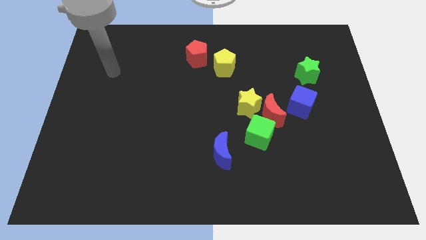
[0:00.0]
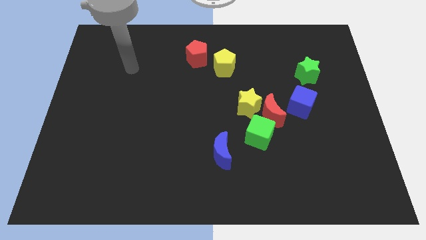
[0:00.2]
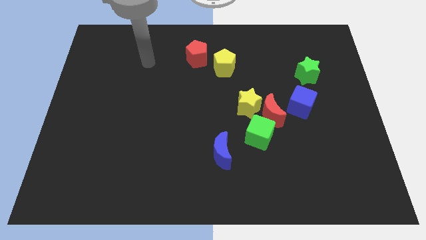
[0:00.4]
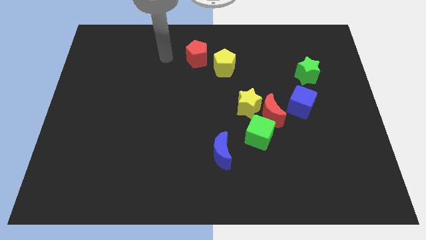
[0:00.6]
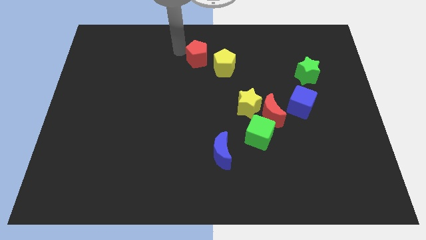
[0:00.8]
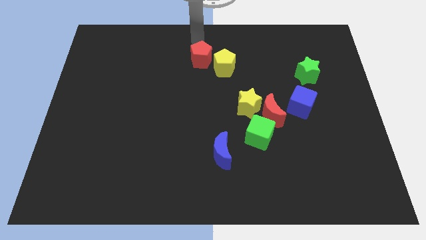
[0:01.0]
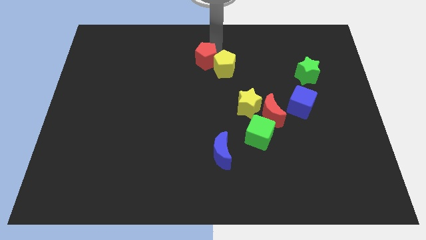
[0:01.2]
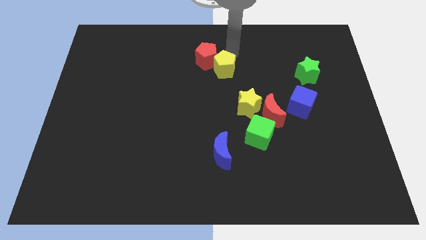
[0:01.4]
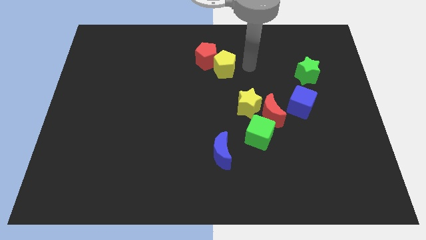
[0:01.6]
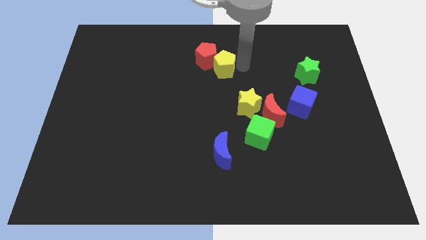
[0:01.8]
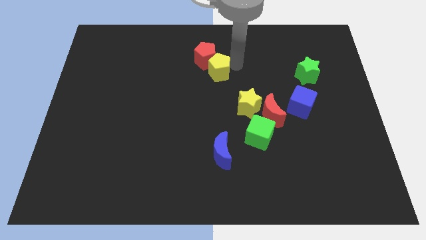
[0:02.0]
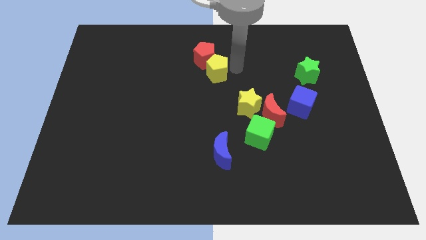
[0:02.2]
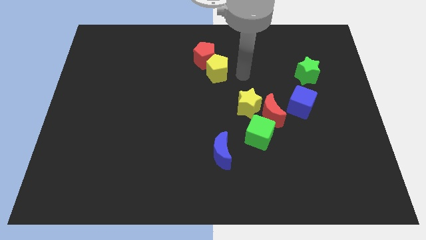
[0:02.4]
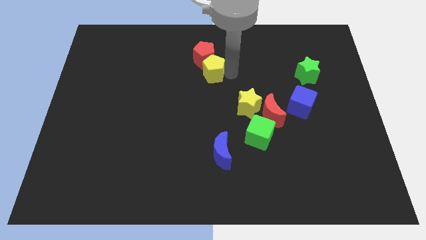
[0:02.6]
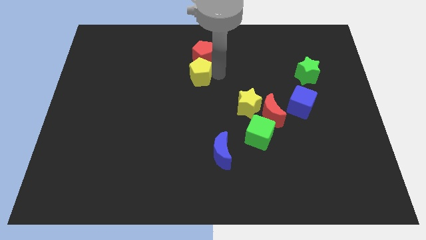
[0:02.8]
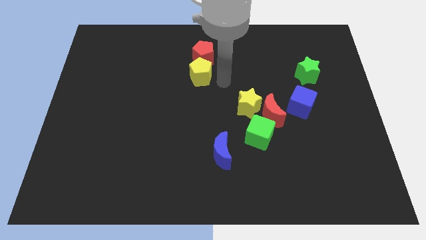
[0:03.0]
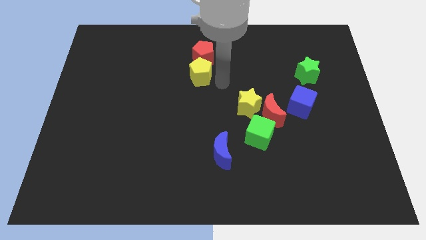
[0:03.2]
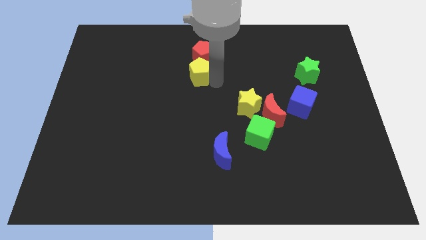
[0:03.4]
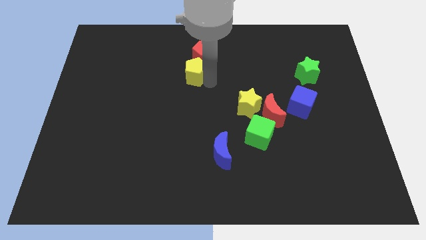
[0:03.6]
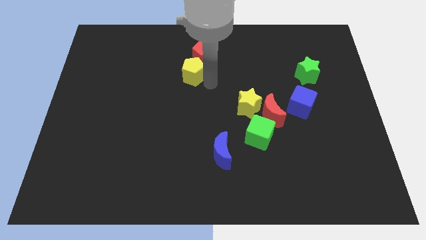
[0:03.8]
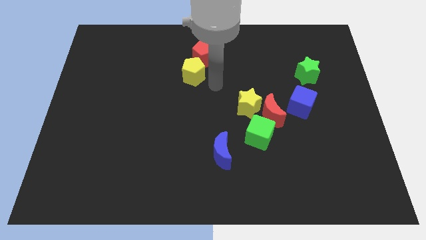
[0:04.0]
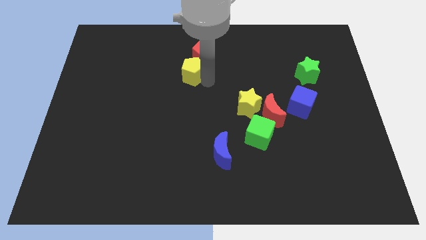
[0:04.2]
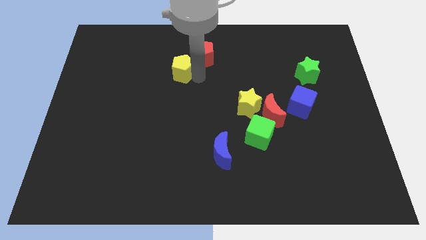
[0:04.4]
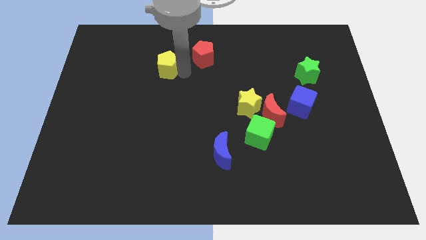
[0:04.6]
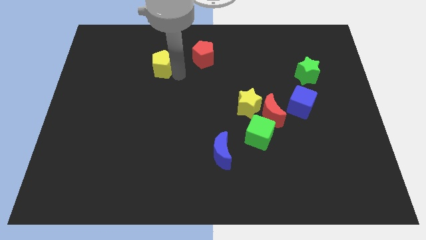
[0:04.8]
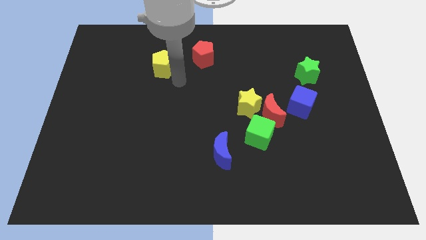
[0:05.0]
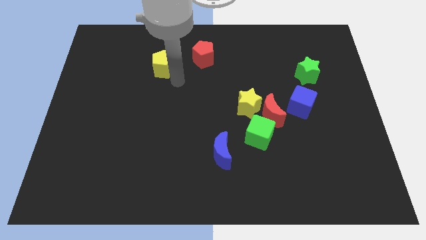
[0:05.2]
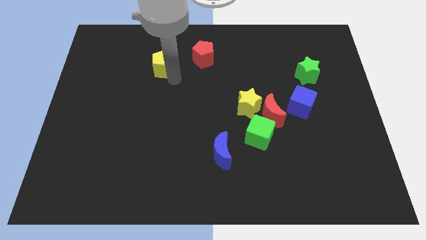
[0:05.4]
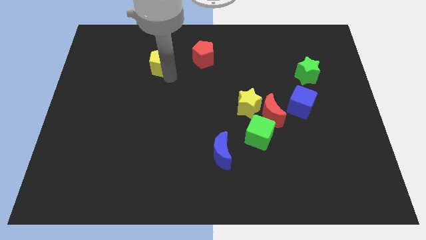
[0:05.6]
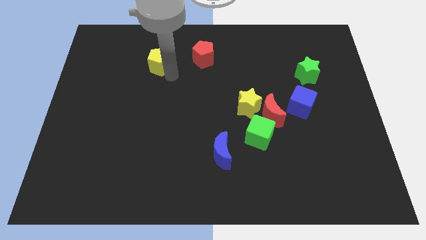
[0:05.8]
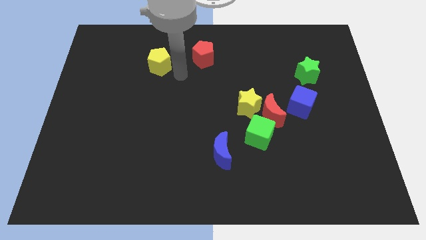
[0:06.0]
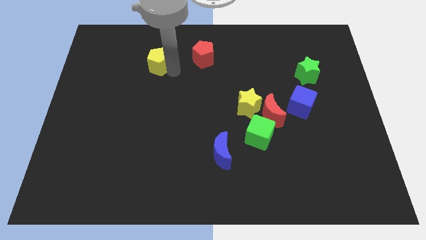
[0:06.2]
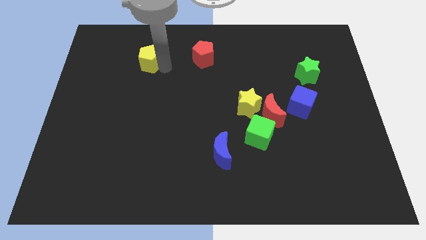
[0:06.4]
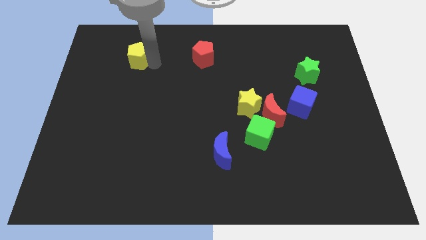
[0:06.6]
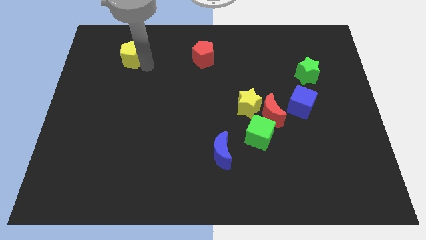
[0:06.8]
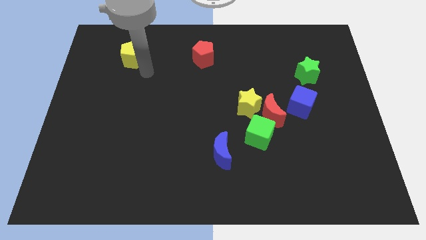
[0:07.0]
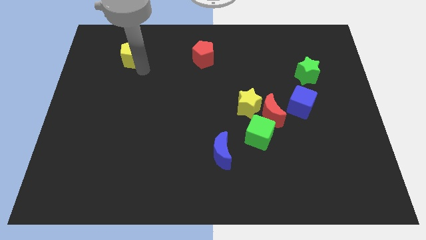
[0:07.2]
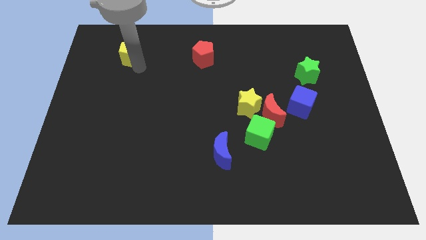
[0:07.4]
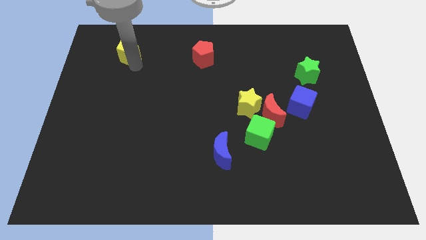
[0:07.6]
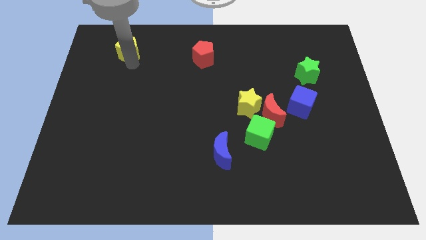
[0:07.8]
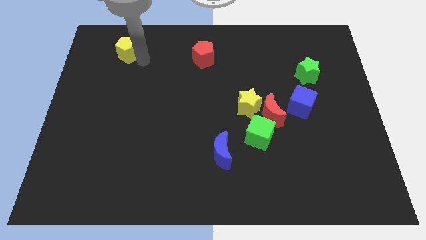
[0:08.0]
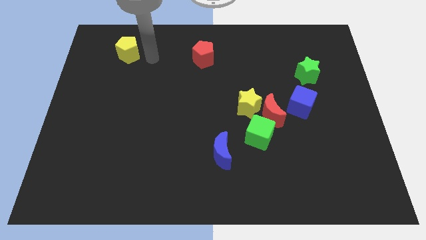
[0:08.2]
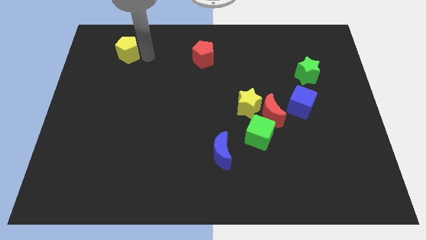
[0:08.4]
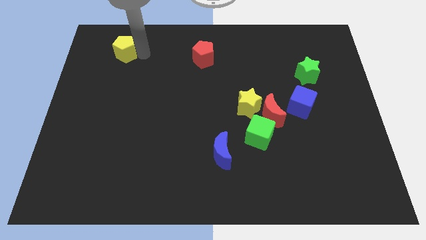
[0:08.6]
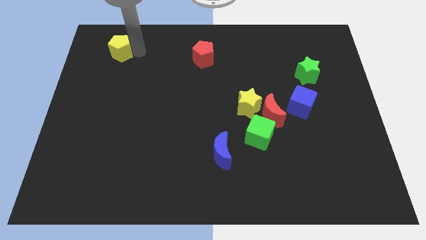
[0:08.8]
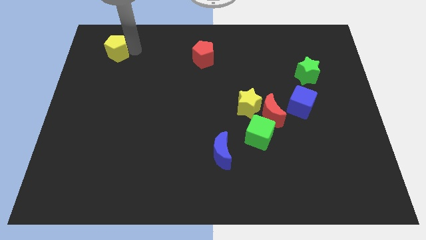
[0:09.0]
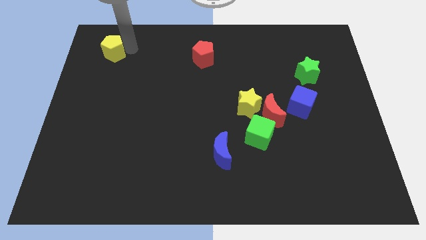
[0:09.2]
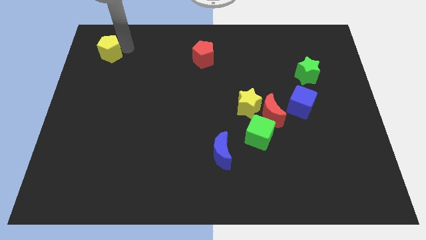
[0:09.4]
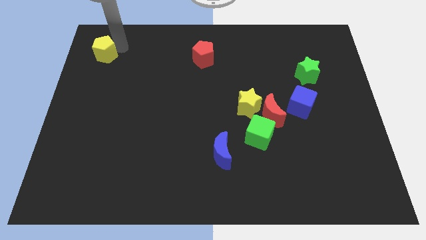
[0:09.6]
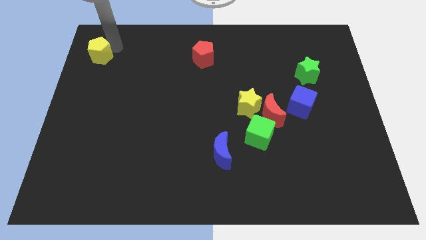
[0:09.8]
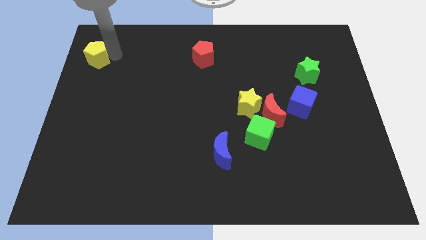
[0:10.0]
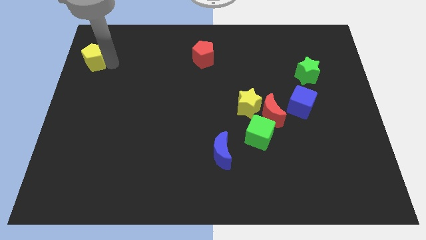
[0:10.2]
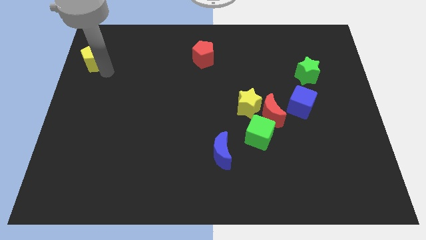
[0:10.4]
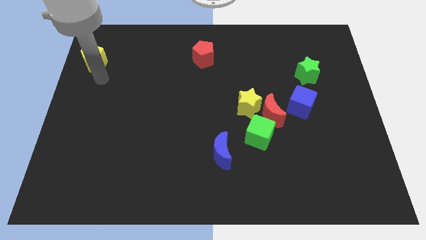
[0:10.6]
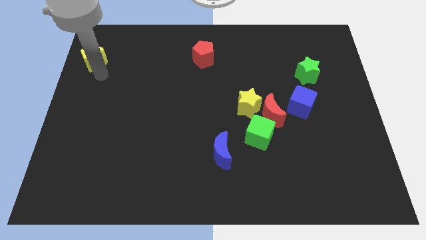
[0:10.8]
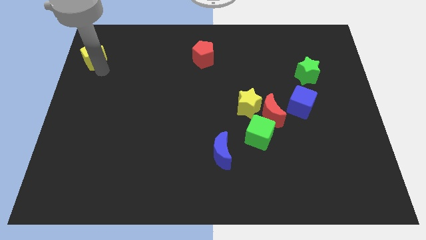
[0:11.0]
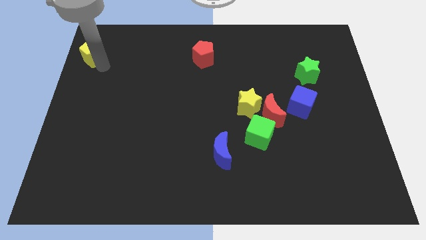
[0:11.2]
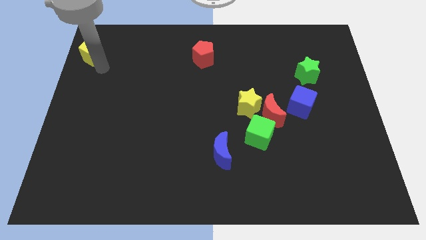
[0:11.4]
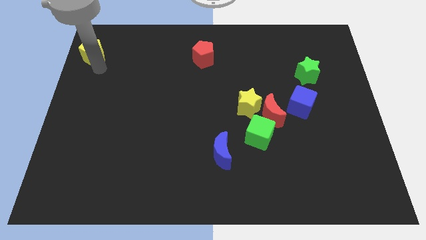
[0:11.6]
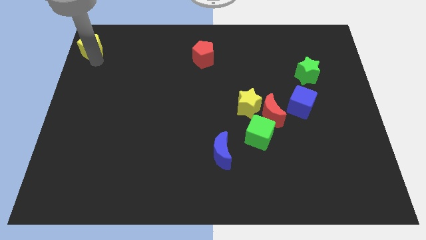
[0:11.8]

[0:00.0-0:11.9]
put the yellow pentagon to the top left corner
